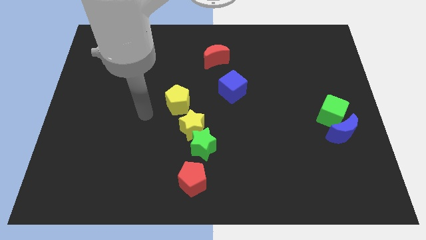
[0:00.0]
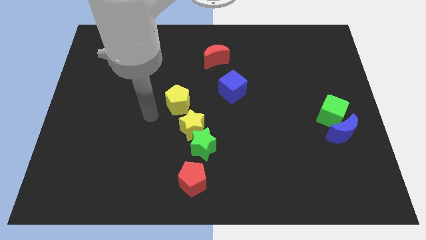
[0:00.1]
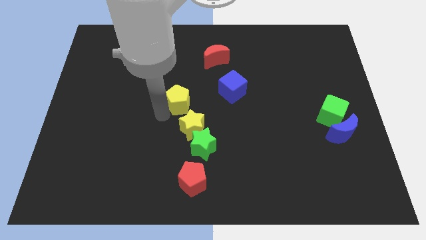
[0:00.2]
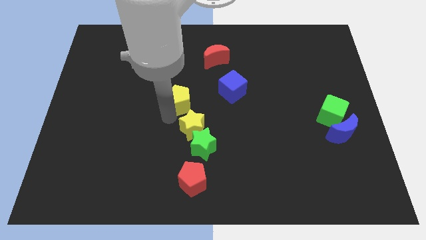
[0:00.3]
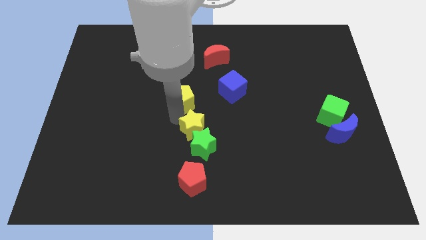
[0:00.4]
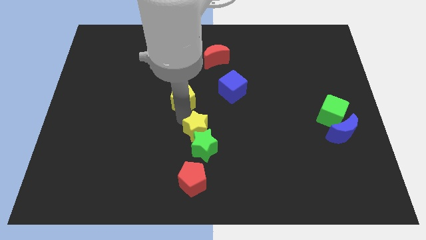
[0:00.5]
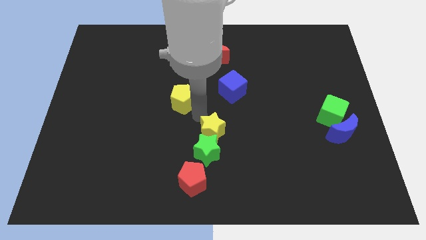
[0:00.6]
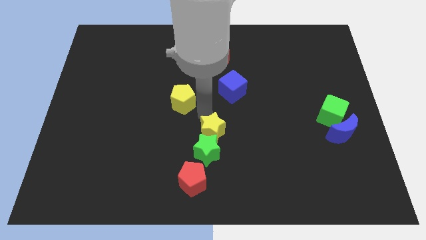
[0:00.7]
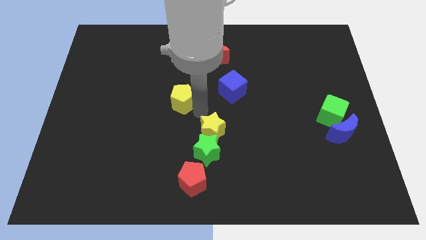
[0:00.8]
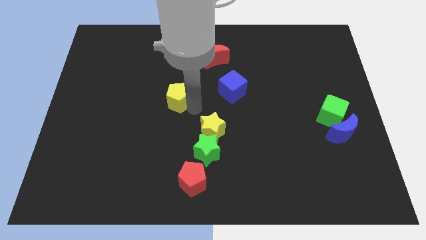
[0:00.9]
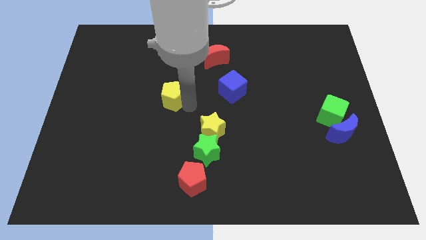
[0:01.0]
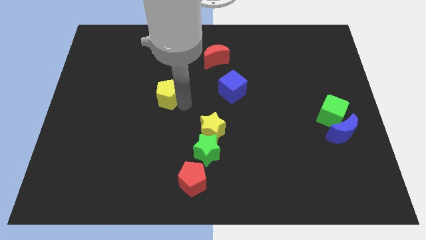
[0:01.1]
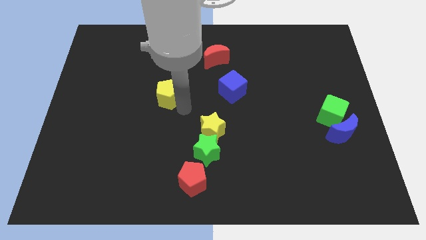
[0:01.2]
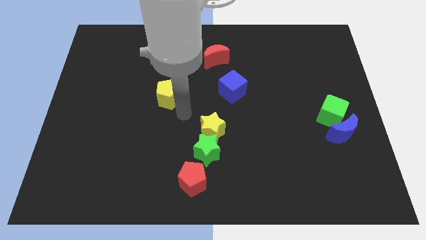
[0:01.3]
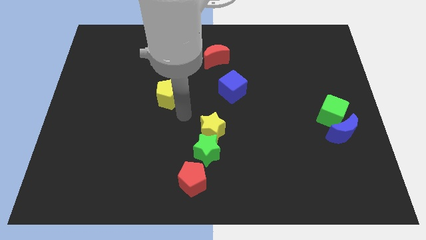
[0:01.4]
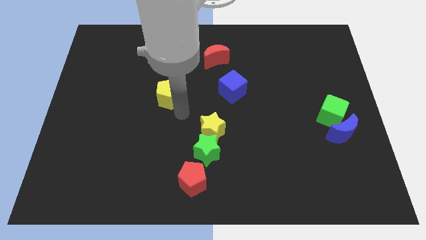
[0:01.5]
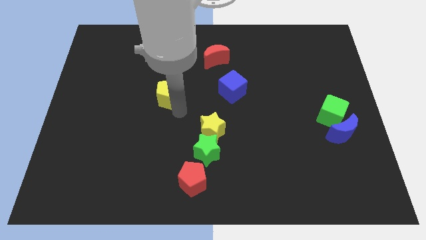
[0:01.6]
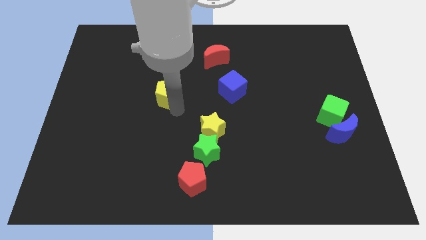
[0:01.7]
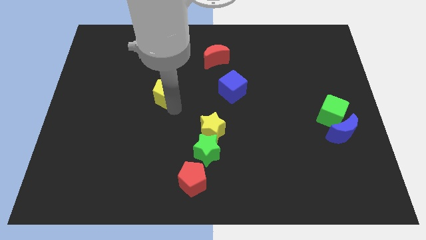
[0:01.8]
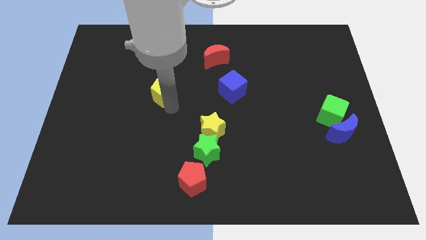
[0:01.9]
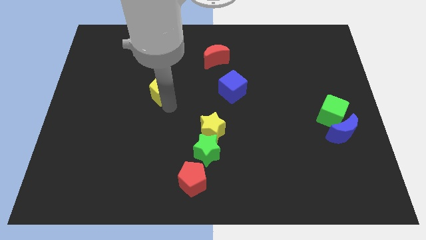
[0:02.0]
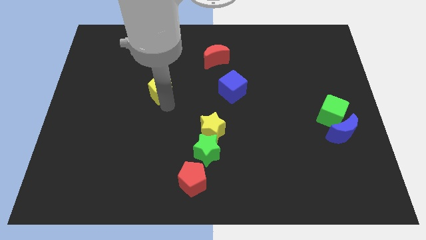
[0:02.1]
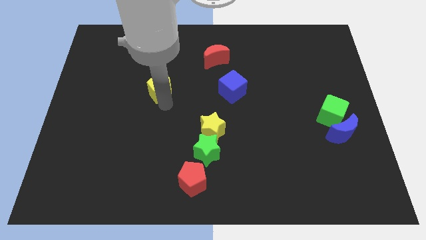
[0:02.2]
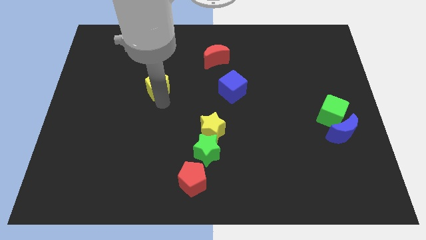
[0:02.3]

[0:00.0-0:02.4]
slightly push the yellow pentagon diagonally up and left

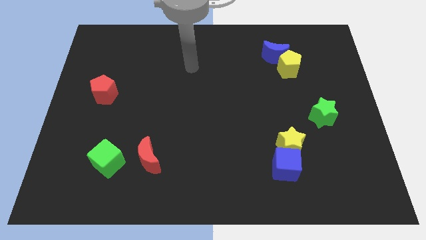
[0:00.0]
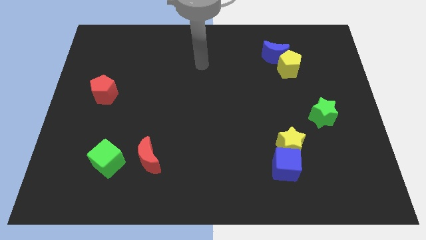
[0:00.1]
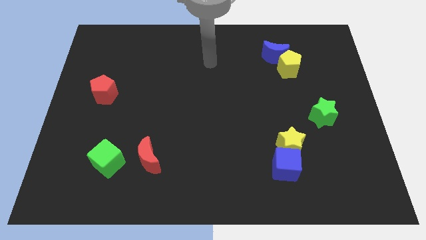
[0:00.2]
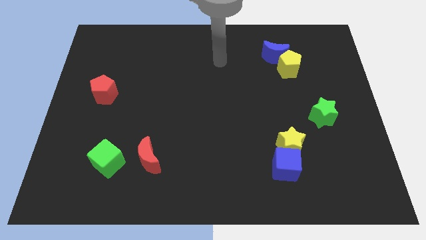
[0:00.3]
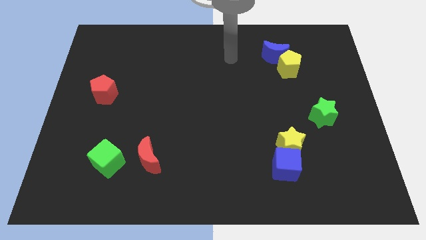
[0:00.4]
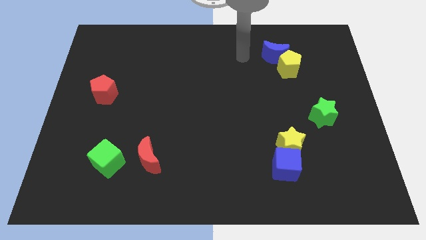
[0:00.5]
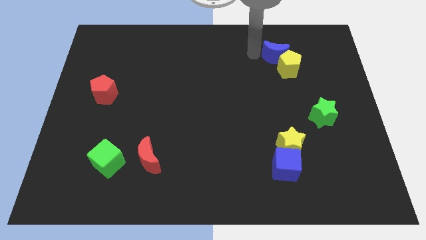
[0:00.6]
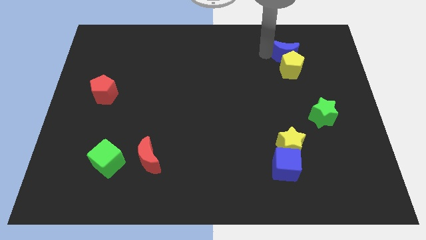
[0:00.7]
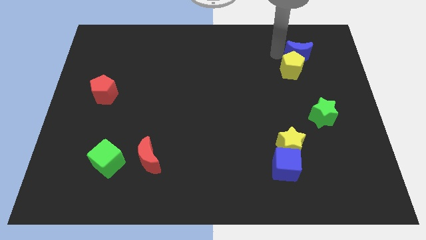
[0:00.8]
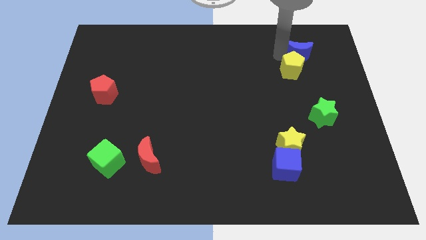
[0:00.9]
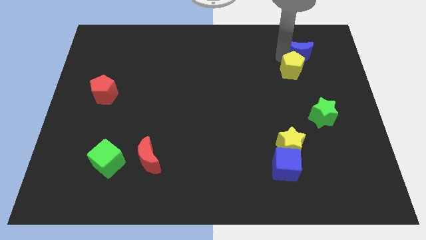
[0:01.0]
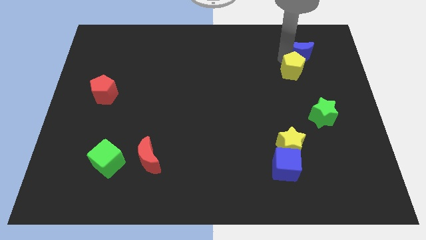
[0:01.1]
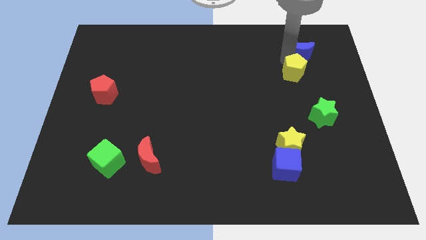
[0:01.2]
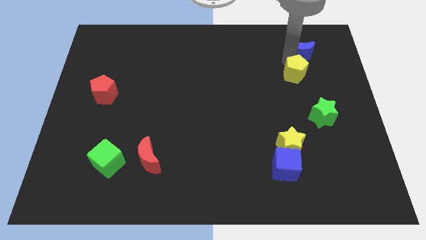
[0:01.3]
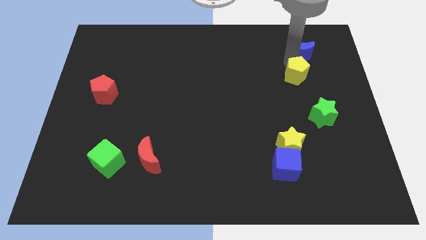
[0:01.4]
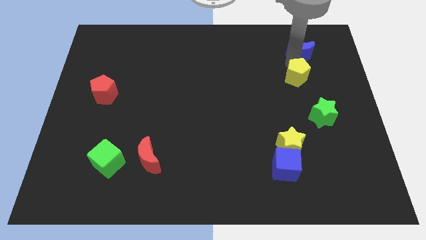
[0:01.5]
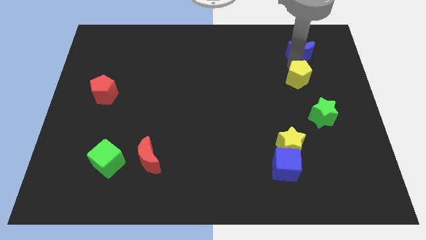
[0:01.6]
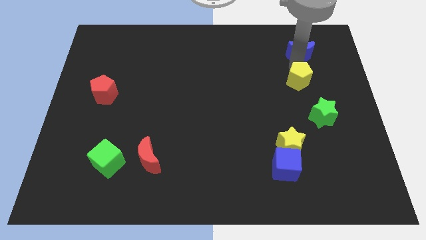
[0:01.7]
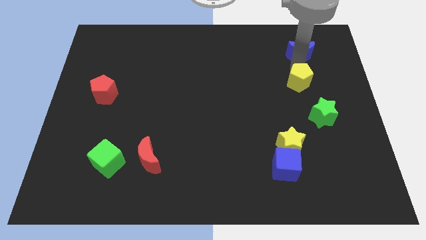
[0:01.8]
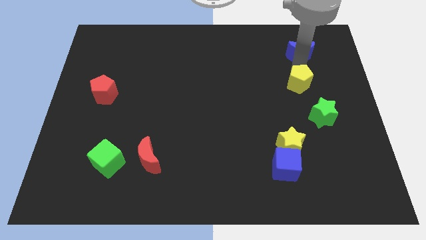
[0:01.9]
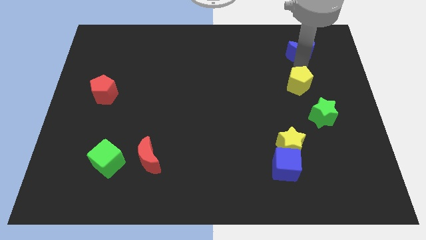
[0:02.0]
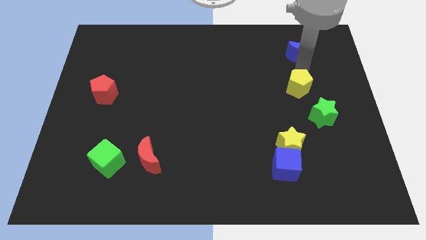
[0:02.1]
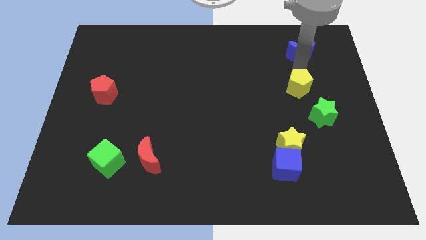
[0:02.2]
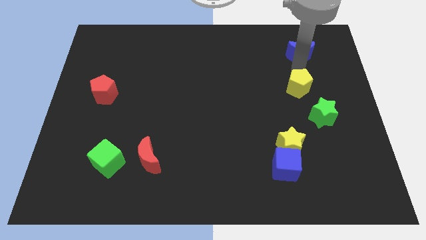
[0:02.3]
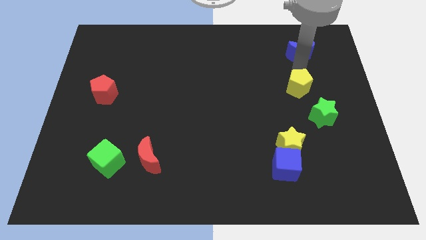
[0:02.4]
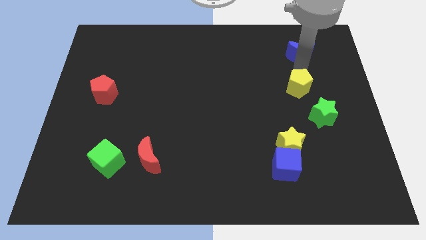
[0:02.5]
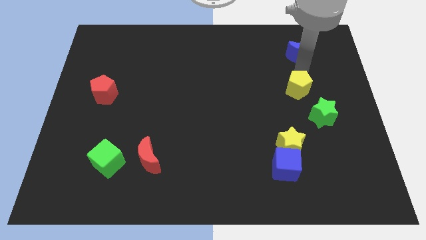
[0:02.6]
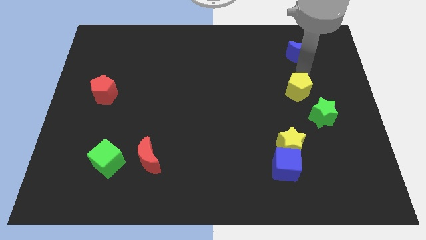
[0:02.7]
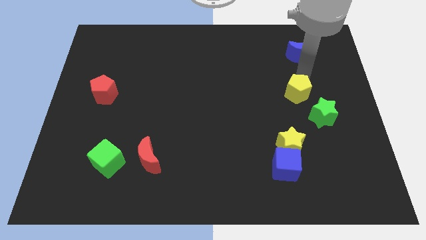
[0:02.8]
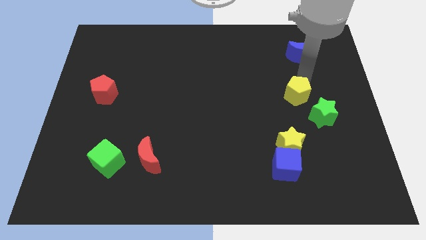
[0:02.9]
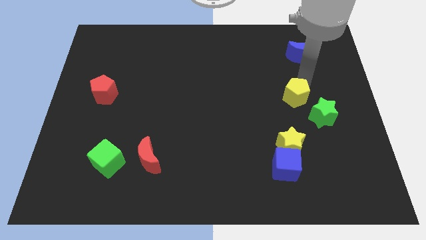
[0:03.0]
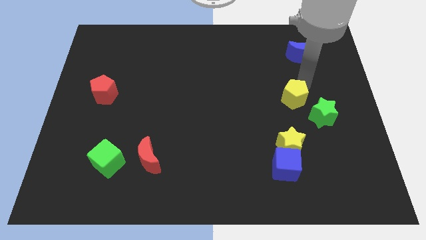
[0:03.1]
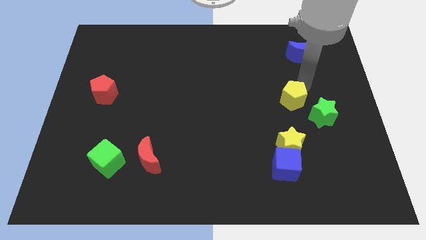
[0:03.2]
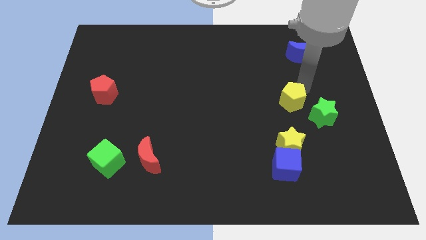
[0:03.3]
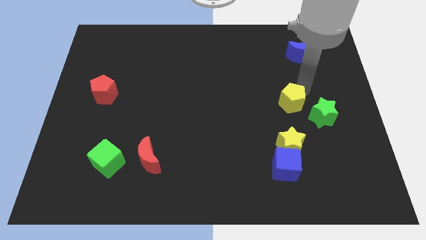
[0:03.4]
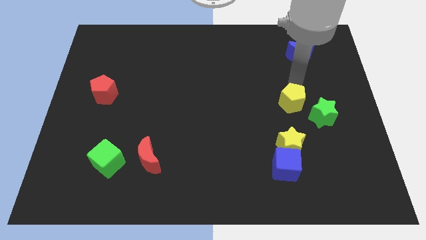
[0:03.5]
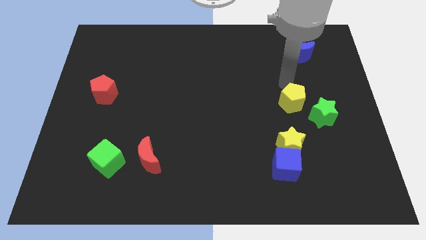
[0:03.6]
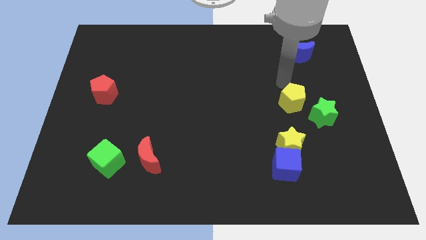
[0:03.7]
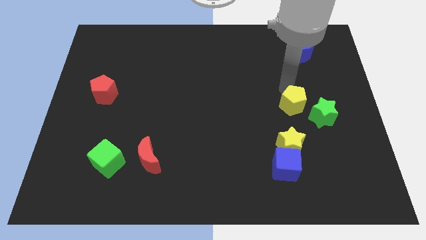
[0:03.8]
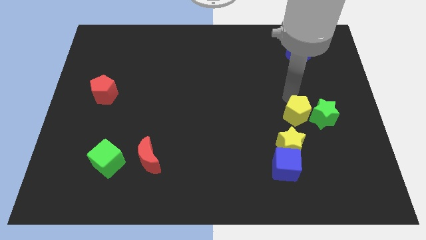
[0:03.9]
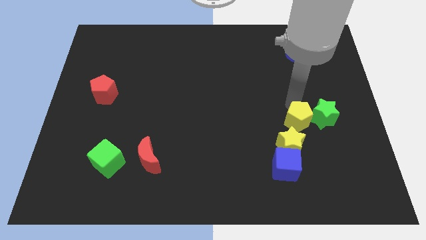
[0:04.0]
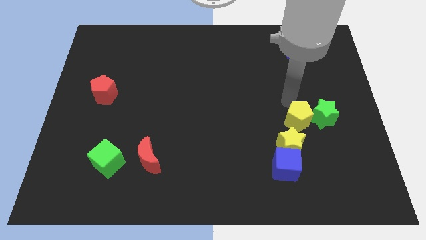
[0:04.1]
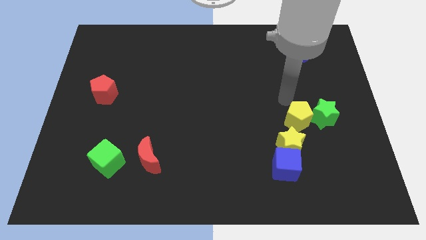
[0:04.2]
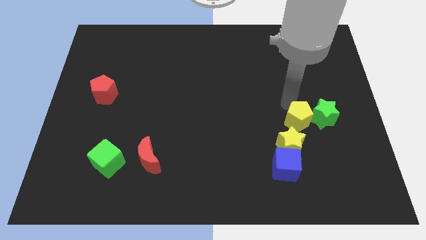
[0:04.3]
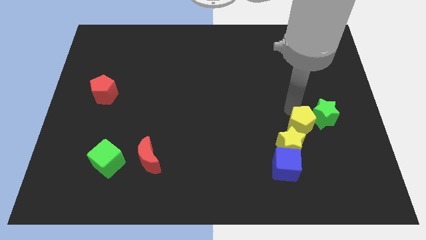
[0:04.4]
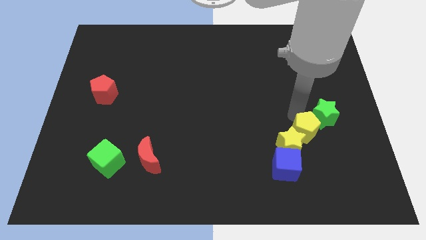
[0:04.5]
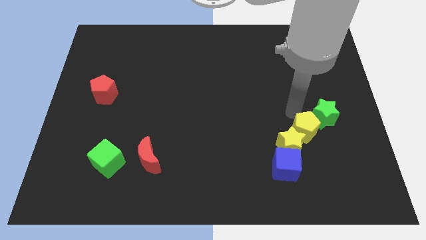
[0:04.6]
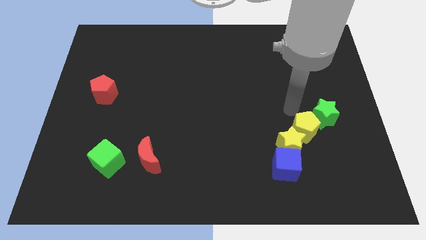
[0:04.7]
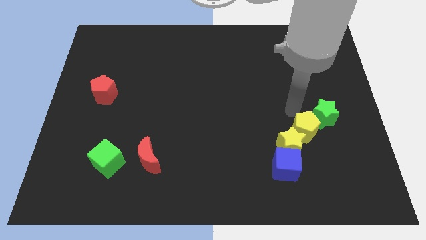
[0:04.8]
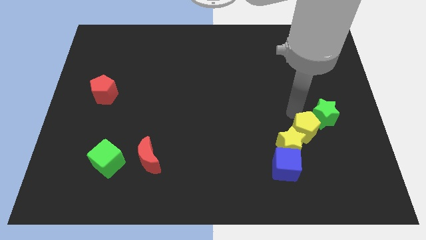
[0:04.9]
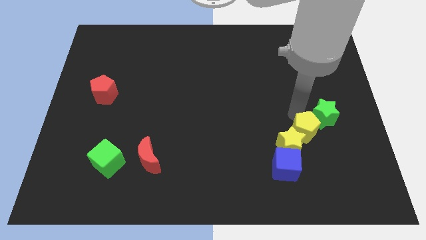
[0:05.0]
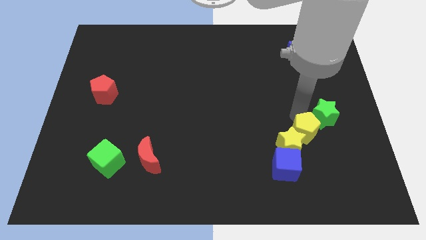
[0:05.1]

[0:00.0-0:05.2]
push the yellow pentagon downwards

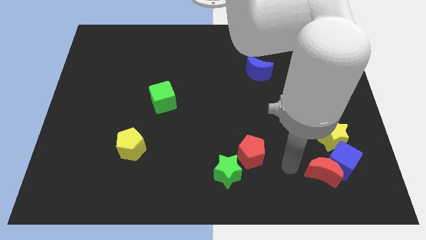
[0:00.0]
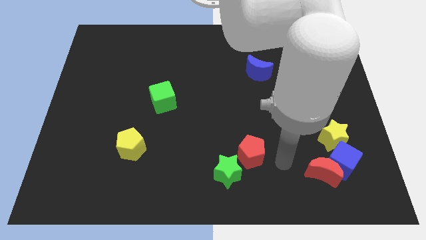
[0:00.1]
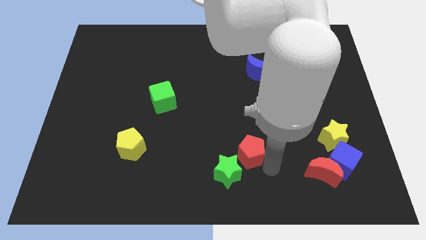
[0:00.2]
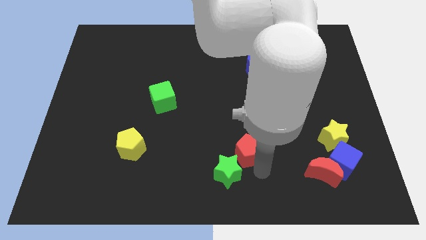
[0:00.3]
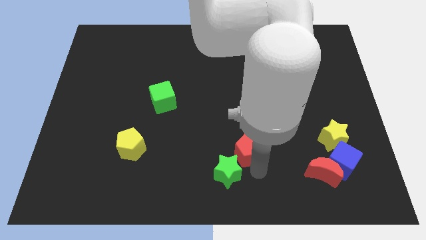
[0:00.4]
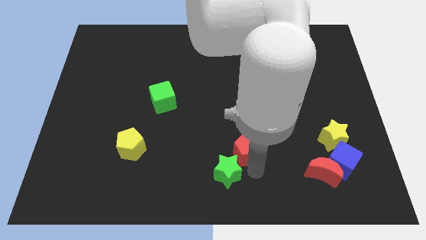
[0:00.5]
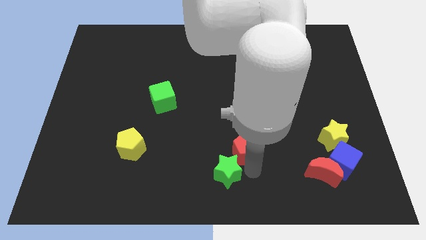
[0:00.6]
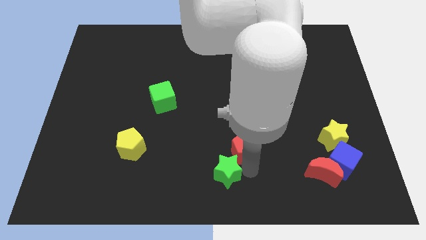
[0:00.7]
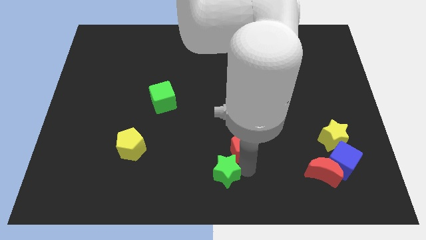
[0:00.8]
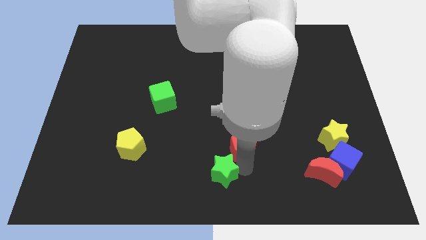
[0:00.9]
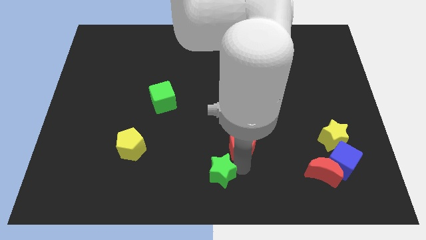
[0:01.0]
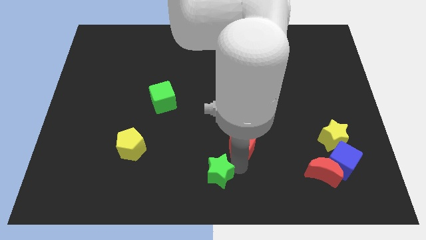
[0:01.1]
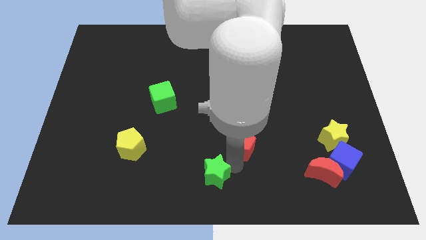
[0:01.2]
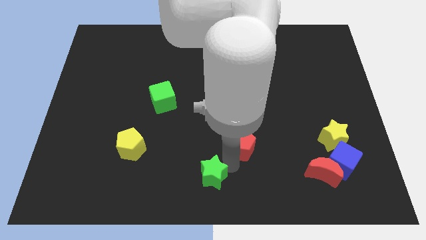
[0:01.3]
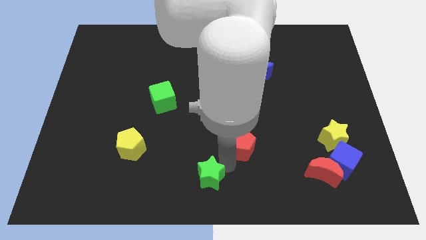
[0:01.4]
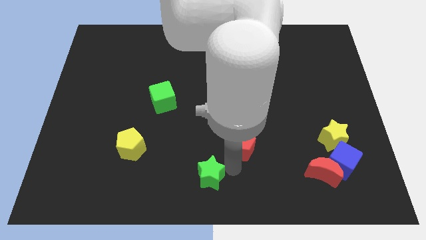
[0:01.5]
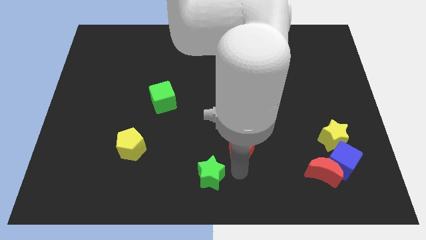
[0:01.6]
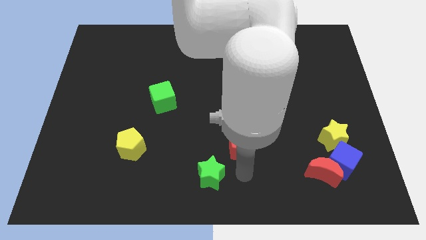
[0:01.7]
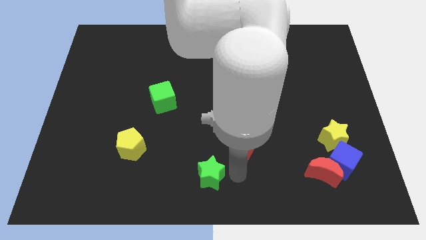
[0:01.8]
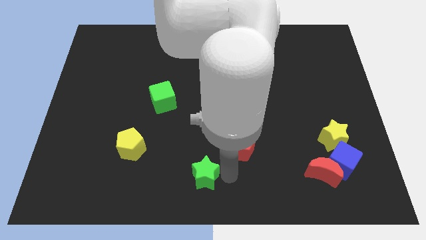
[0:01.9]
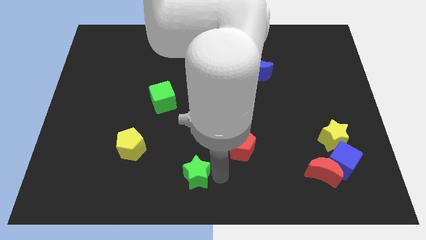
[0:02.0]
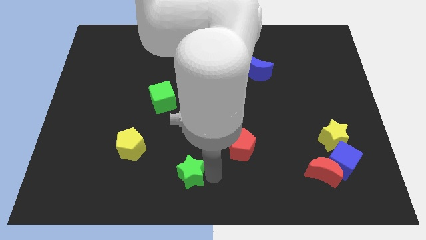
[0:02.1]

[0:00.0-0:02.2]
slightly push the green star left
